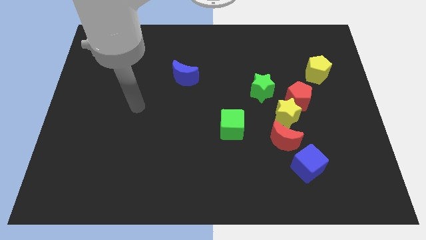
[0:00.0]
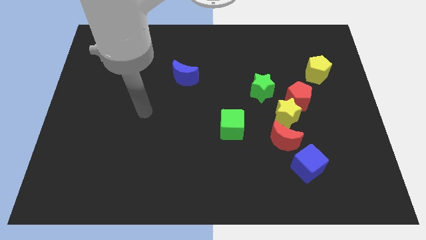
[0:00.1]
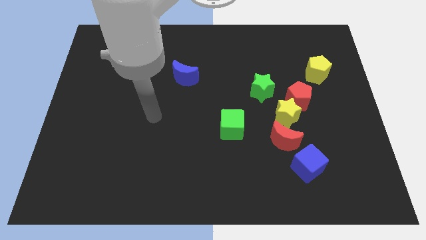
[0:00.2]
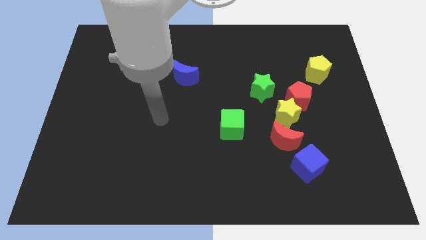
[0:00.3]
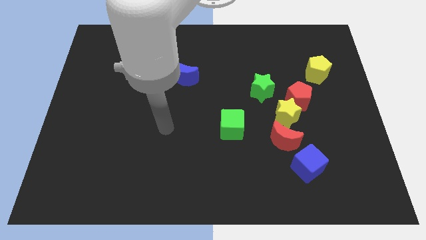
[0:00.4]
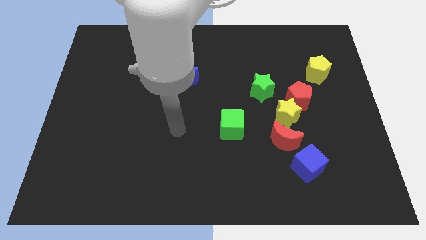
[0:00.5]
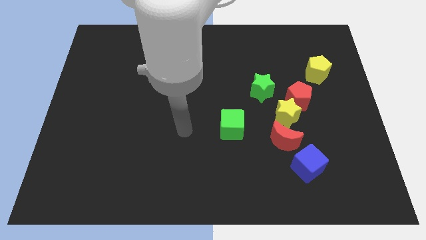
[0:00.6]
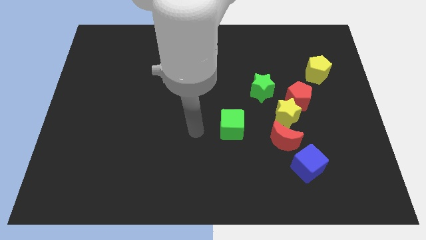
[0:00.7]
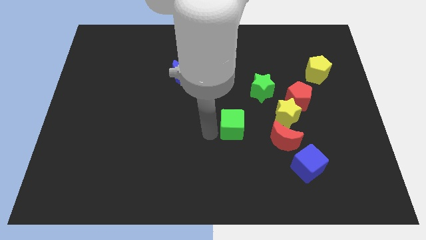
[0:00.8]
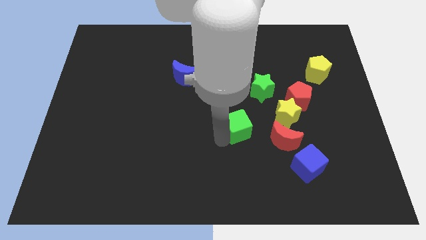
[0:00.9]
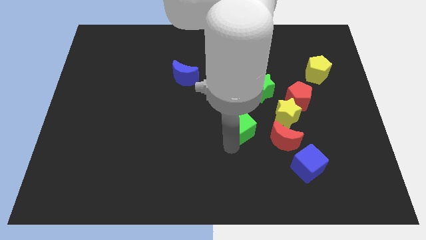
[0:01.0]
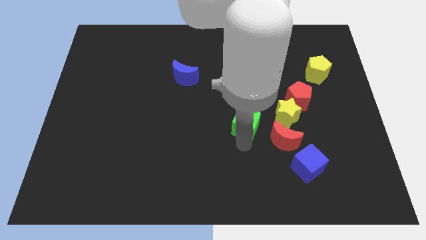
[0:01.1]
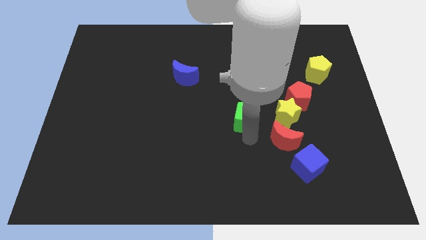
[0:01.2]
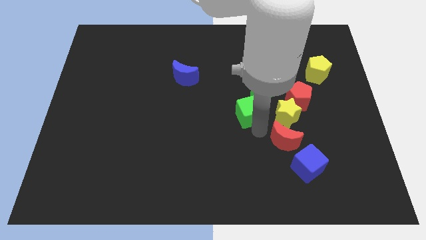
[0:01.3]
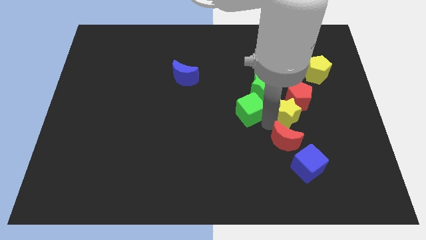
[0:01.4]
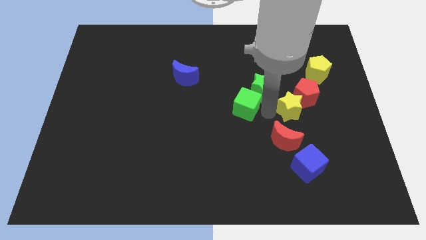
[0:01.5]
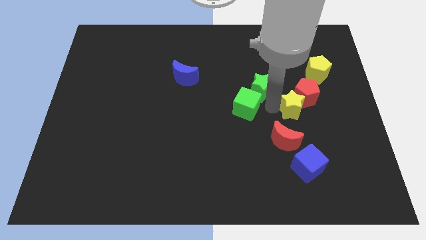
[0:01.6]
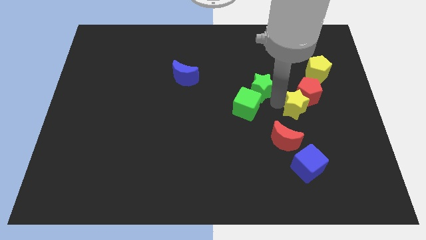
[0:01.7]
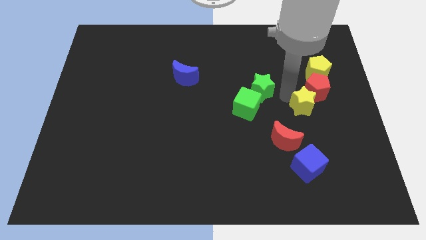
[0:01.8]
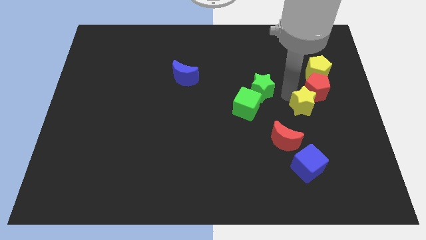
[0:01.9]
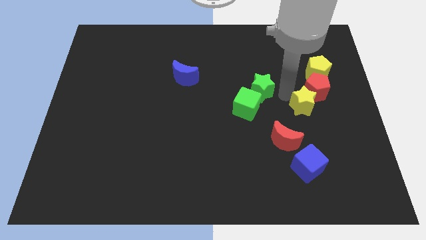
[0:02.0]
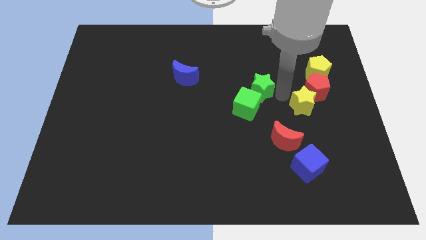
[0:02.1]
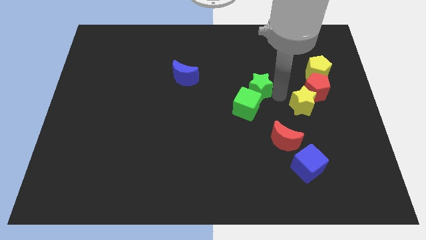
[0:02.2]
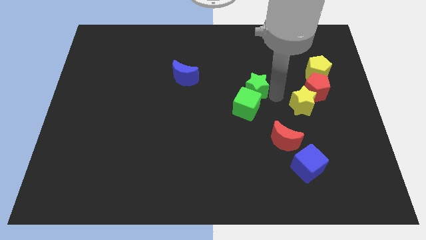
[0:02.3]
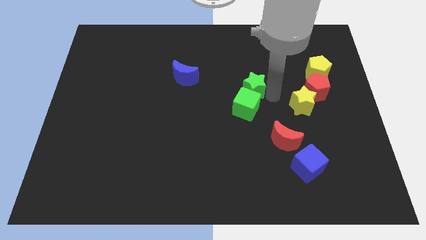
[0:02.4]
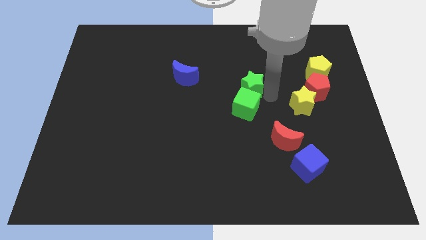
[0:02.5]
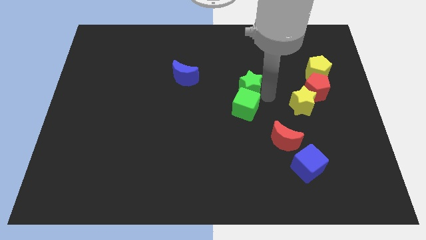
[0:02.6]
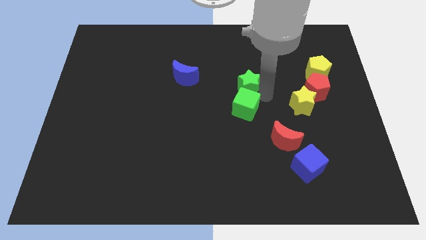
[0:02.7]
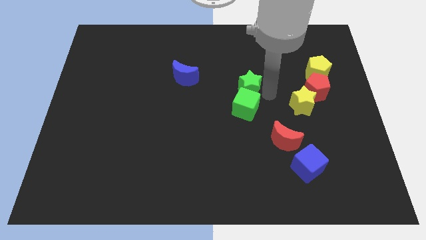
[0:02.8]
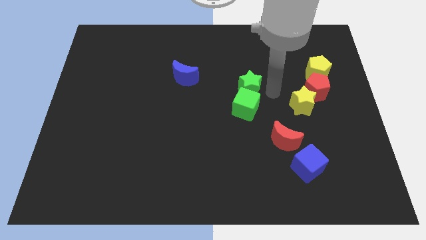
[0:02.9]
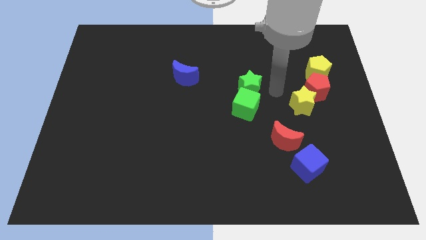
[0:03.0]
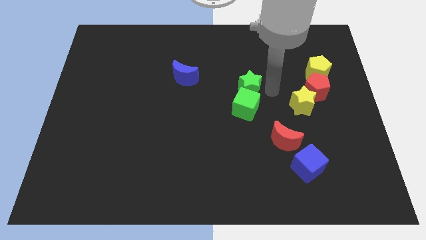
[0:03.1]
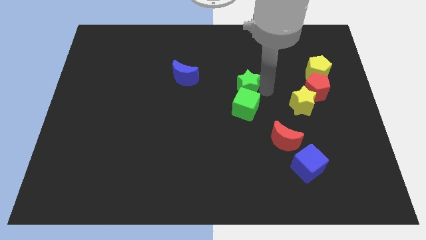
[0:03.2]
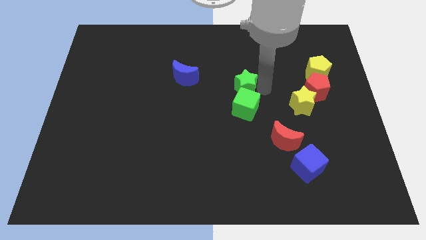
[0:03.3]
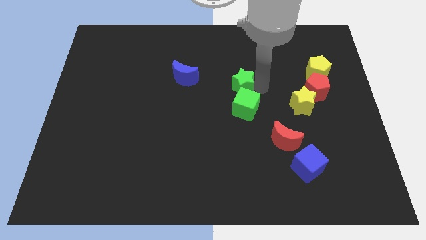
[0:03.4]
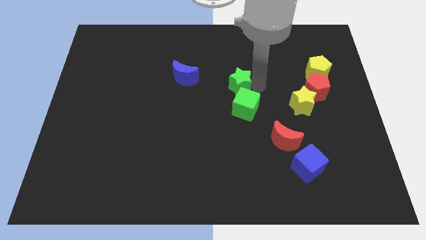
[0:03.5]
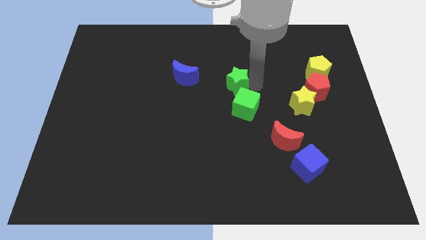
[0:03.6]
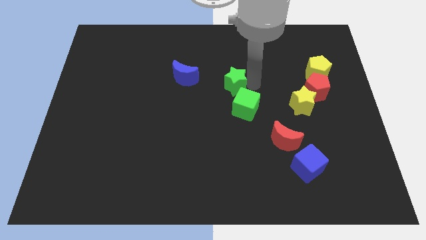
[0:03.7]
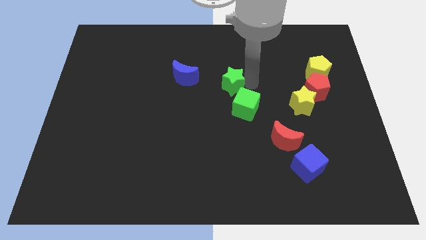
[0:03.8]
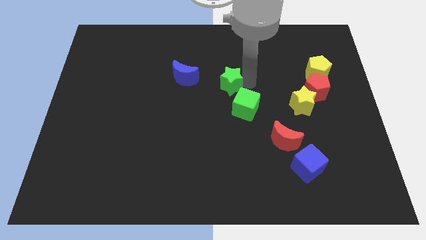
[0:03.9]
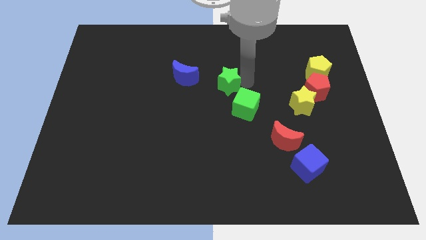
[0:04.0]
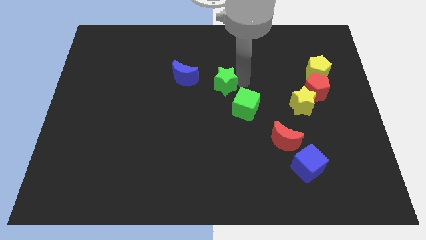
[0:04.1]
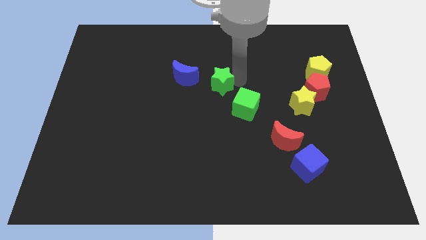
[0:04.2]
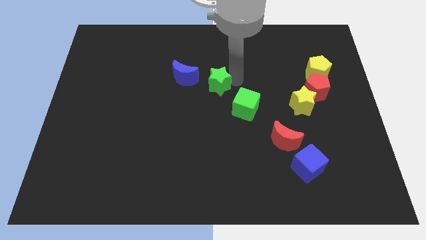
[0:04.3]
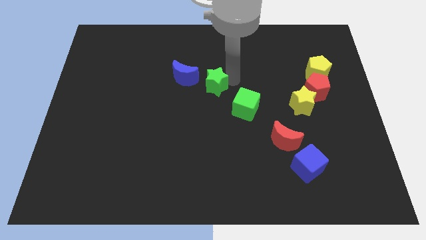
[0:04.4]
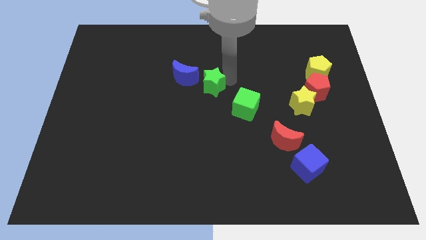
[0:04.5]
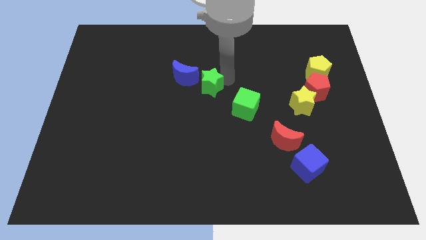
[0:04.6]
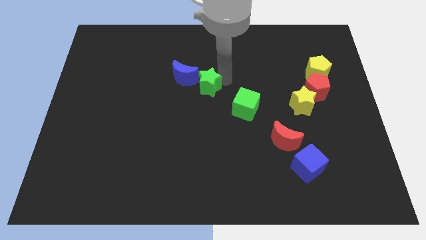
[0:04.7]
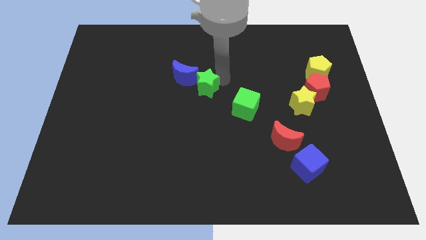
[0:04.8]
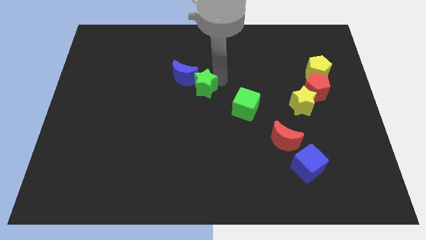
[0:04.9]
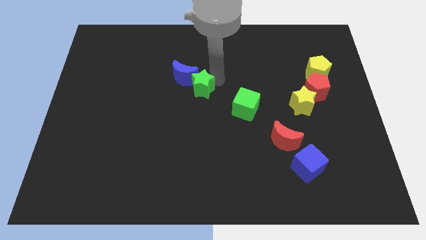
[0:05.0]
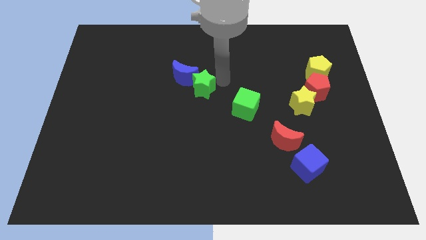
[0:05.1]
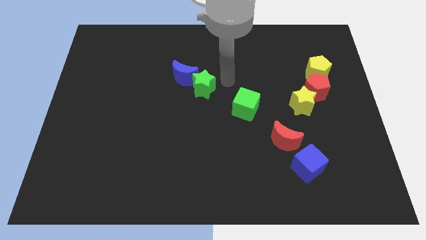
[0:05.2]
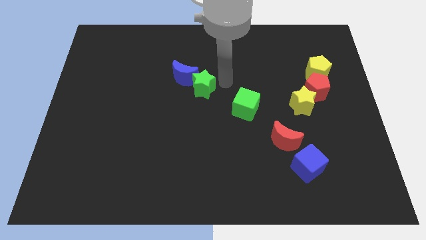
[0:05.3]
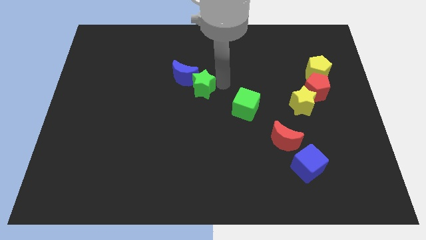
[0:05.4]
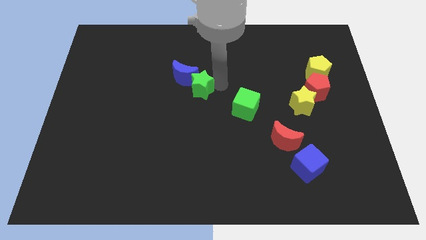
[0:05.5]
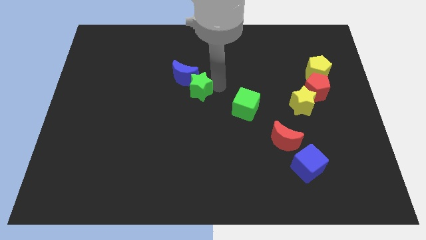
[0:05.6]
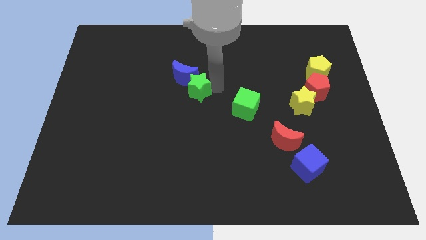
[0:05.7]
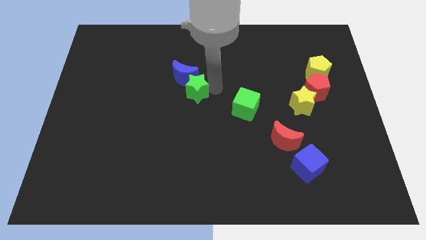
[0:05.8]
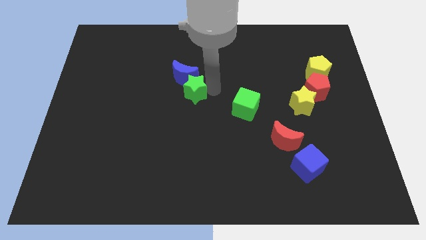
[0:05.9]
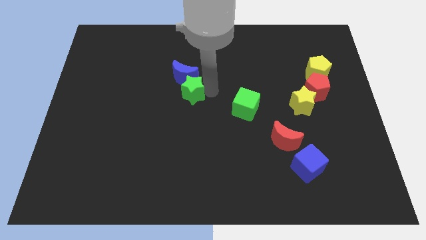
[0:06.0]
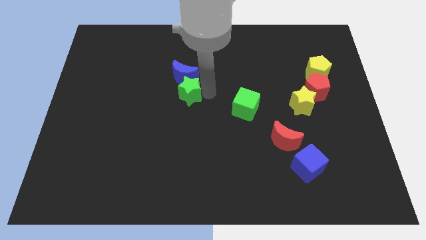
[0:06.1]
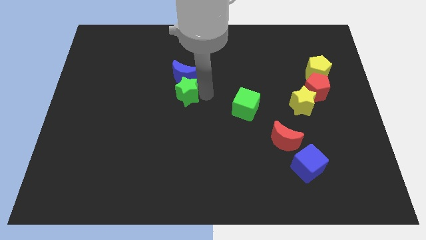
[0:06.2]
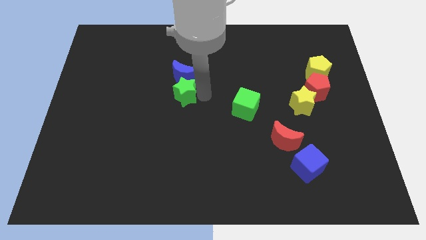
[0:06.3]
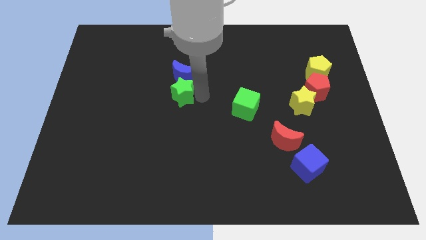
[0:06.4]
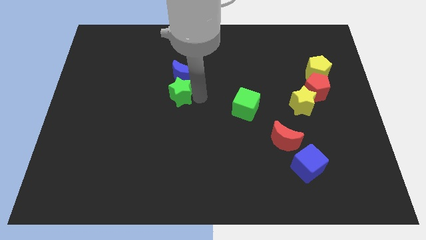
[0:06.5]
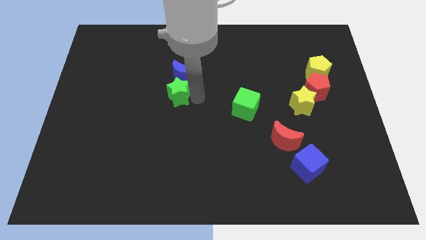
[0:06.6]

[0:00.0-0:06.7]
push the green star left

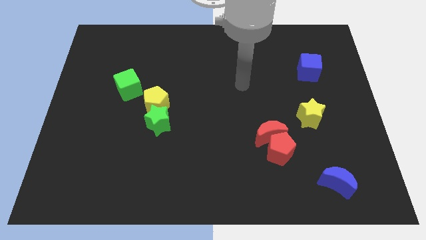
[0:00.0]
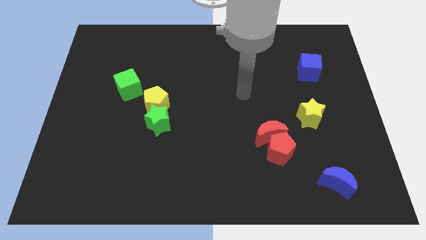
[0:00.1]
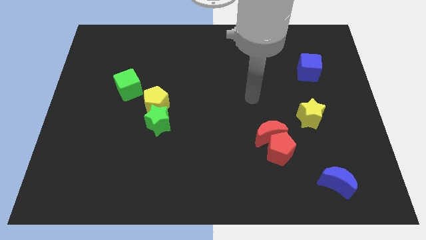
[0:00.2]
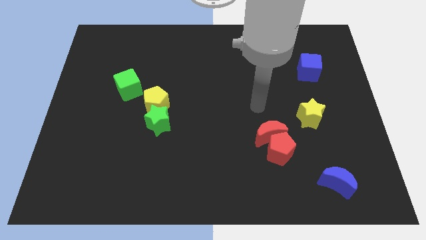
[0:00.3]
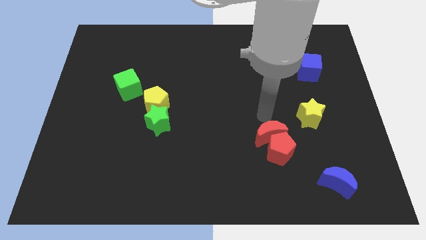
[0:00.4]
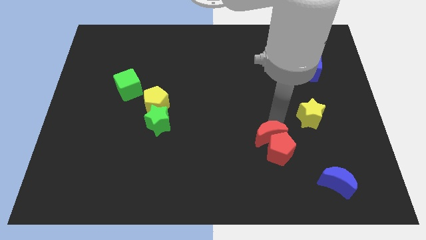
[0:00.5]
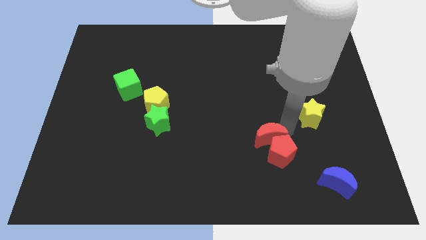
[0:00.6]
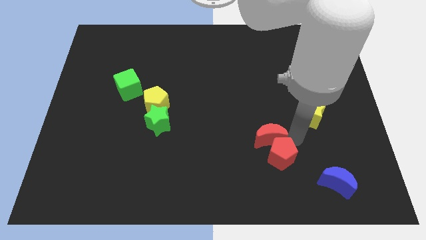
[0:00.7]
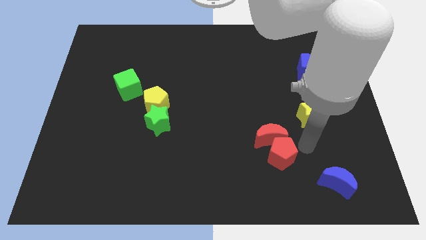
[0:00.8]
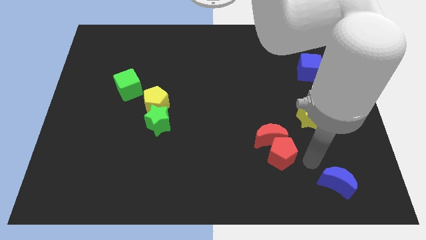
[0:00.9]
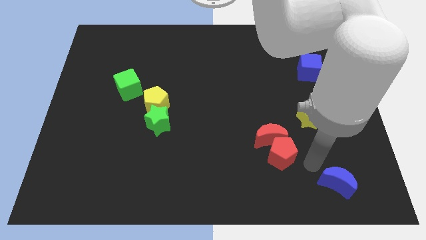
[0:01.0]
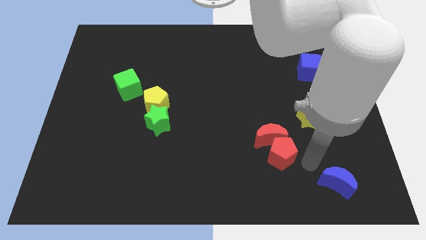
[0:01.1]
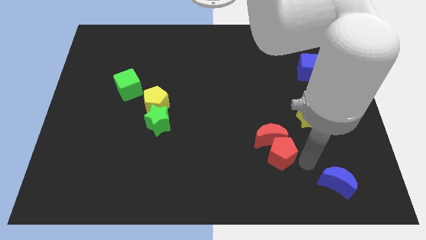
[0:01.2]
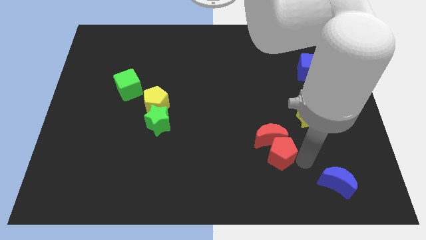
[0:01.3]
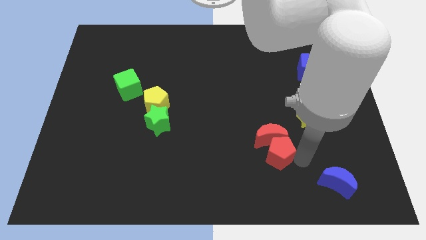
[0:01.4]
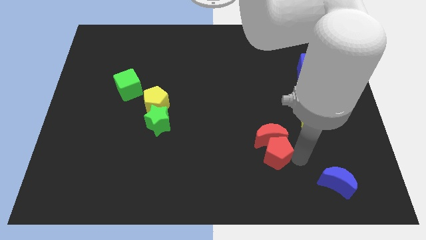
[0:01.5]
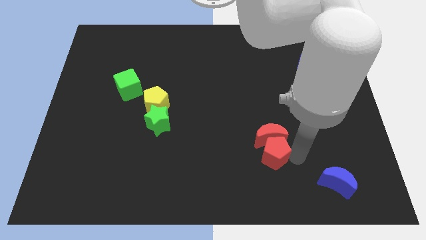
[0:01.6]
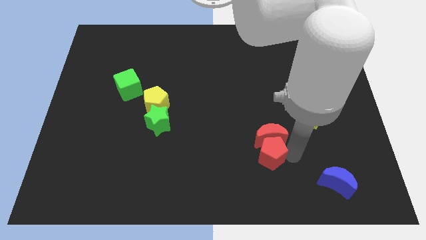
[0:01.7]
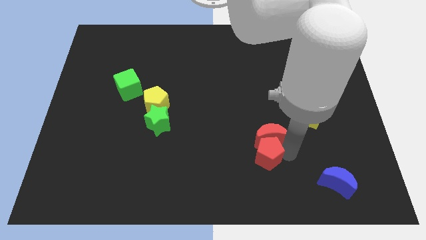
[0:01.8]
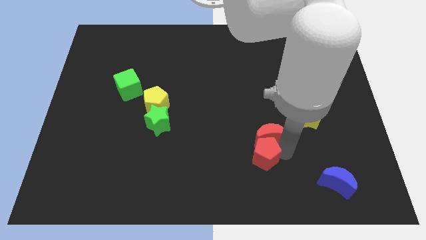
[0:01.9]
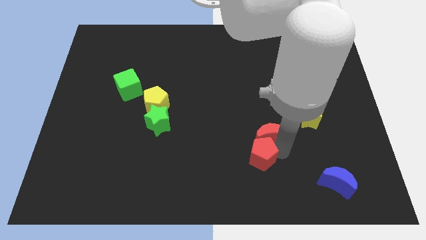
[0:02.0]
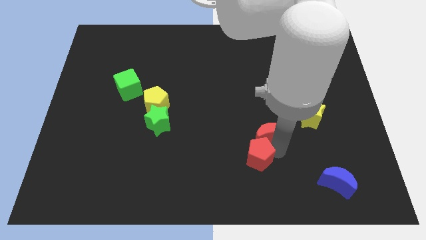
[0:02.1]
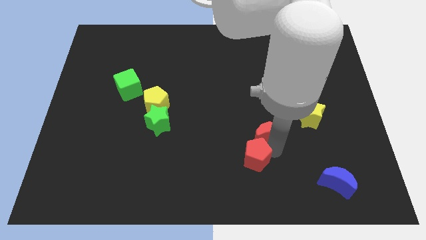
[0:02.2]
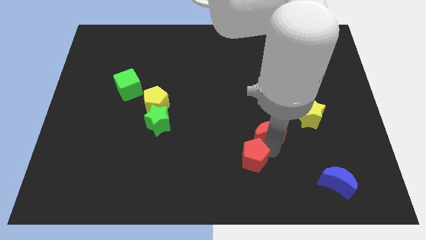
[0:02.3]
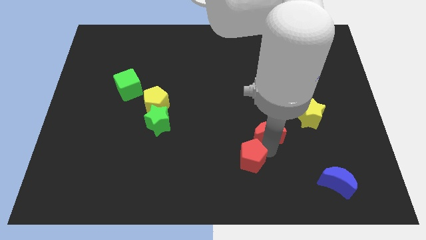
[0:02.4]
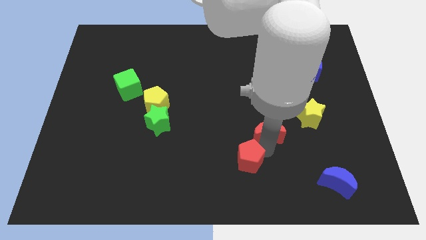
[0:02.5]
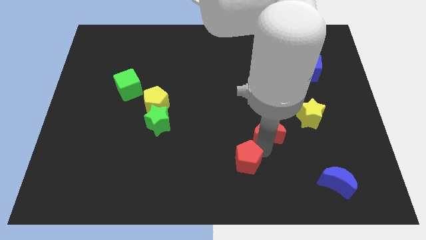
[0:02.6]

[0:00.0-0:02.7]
push the red pentagon somewhat to the left
